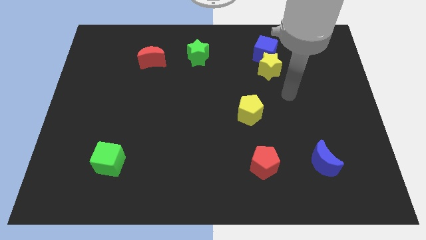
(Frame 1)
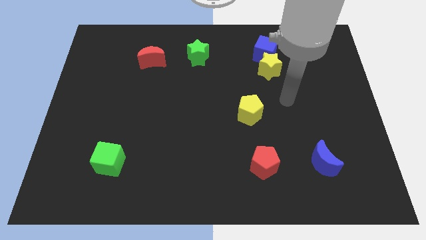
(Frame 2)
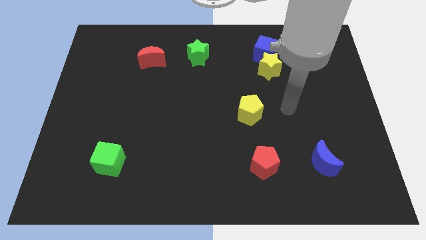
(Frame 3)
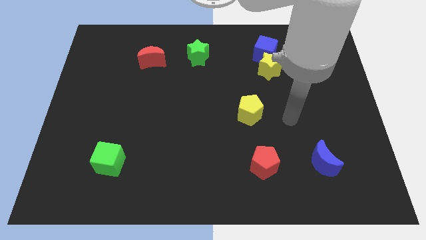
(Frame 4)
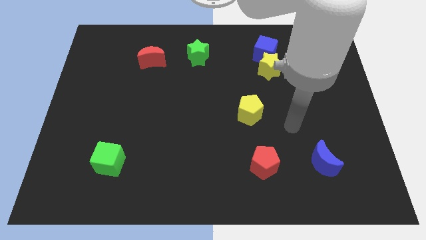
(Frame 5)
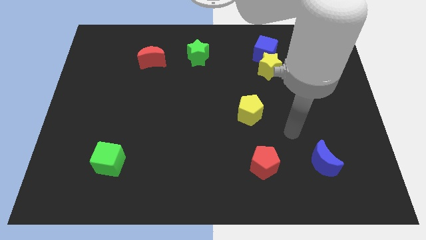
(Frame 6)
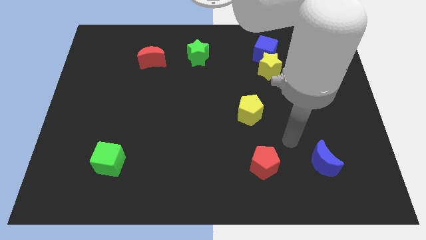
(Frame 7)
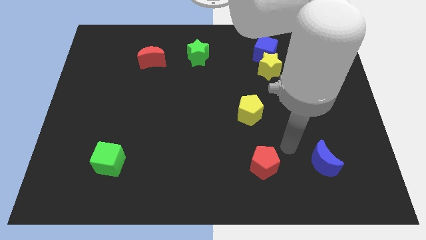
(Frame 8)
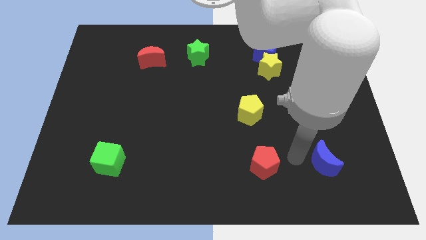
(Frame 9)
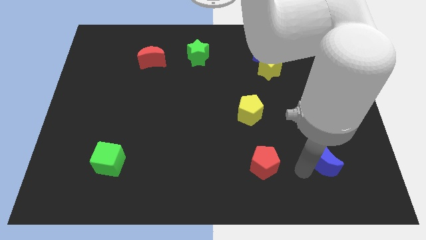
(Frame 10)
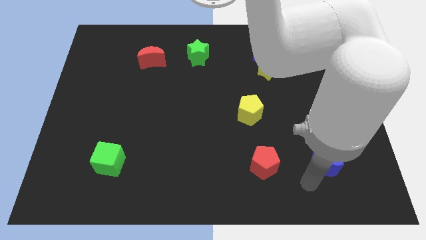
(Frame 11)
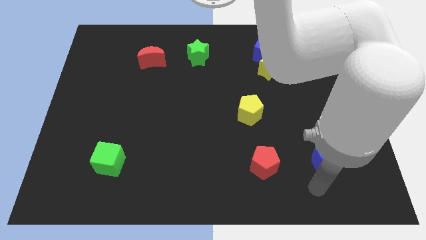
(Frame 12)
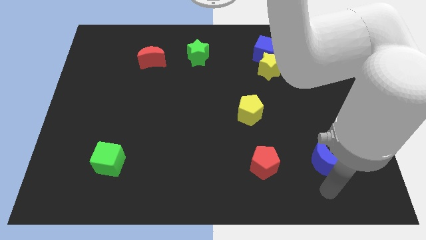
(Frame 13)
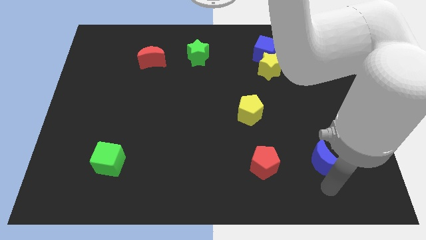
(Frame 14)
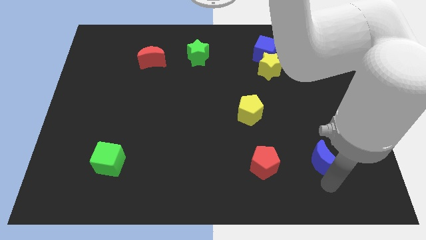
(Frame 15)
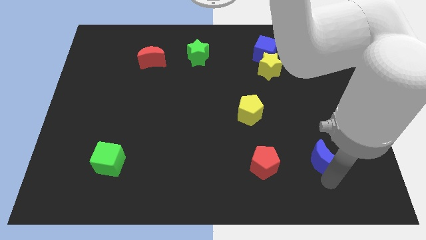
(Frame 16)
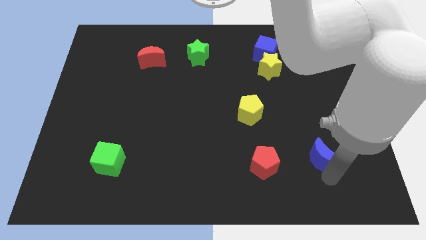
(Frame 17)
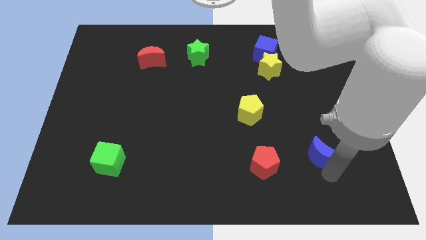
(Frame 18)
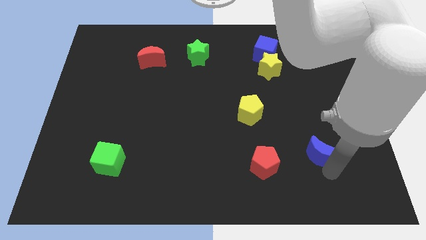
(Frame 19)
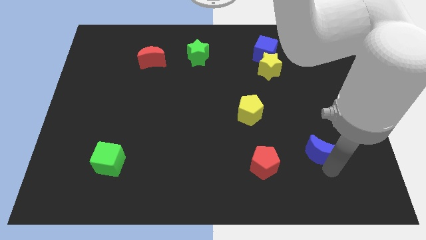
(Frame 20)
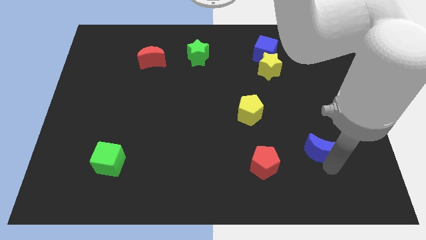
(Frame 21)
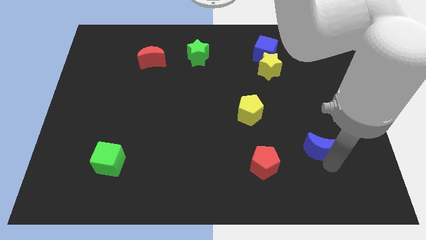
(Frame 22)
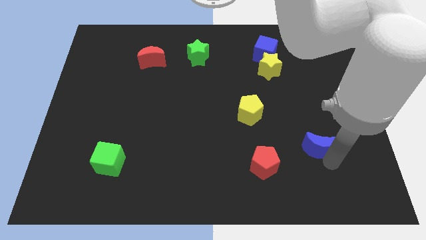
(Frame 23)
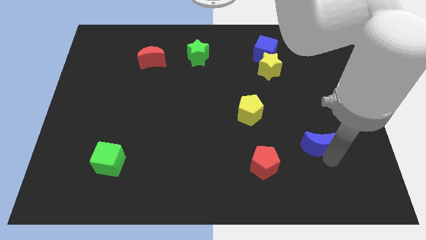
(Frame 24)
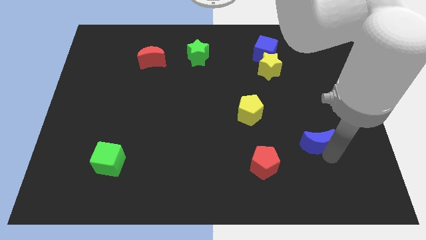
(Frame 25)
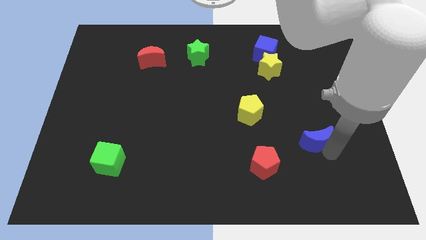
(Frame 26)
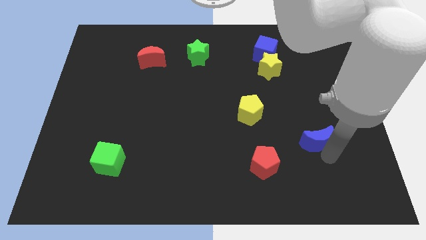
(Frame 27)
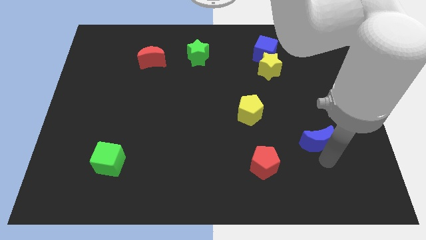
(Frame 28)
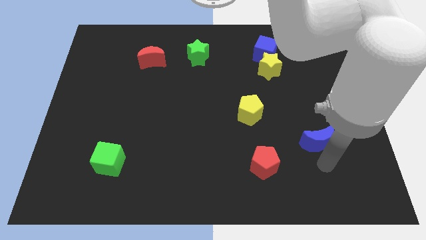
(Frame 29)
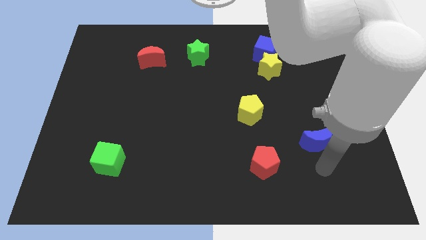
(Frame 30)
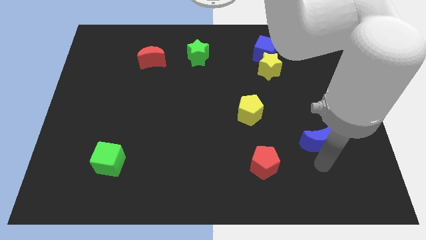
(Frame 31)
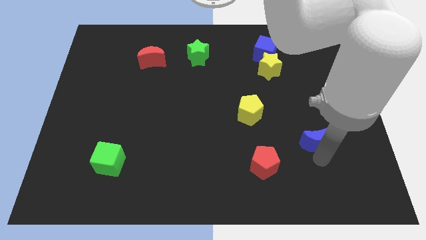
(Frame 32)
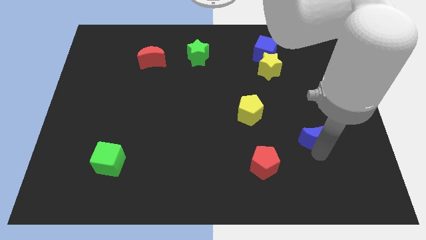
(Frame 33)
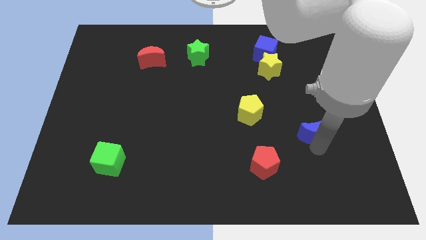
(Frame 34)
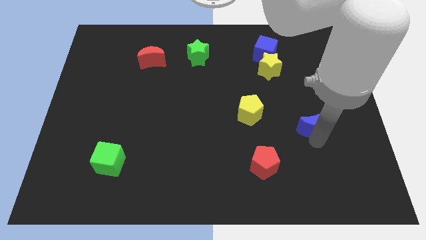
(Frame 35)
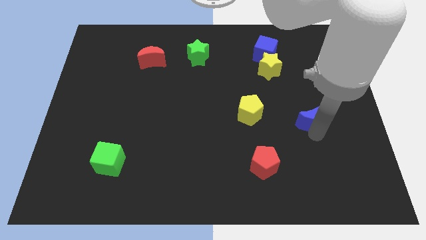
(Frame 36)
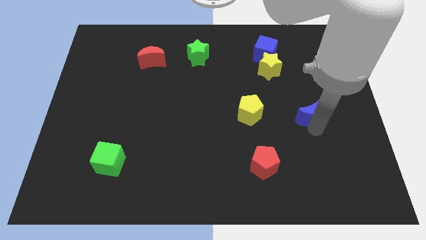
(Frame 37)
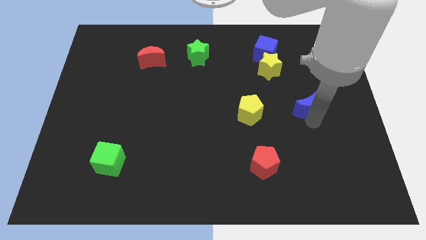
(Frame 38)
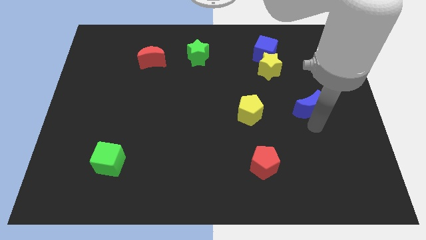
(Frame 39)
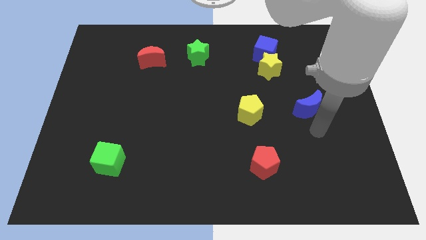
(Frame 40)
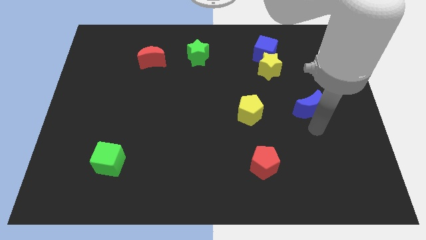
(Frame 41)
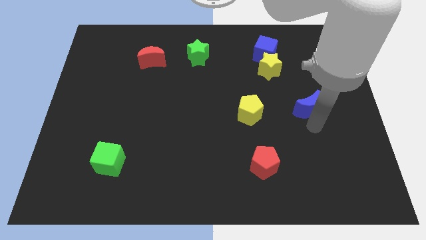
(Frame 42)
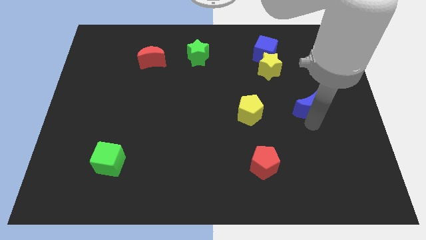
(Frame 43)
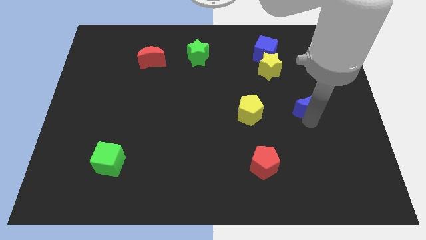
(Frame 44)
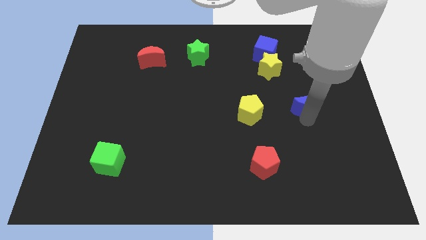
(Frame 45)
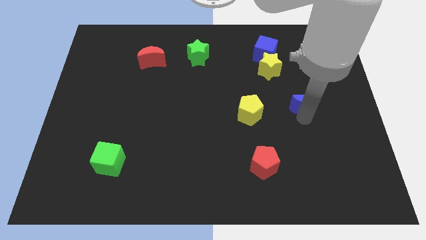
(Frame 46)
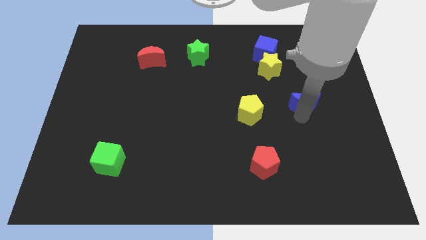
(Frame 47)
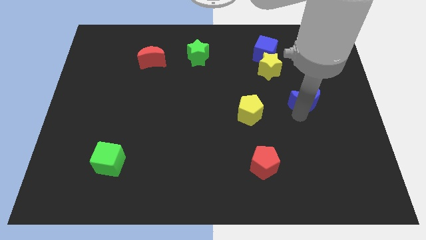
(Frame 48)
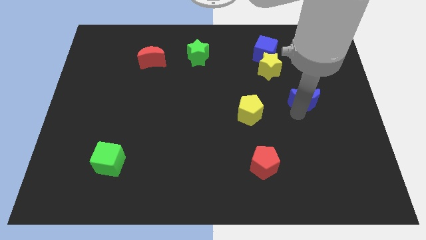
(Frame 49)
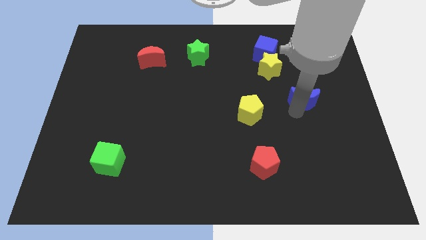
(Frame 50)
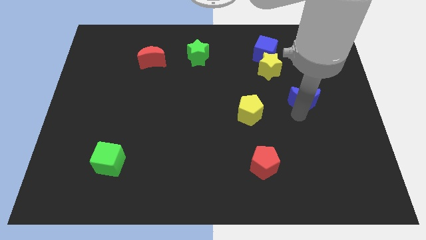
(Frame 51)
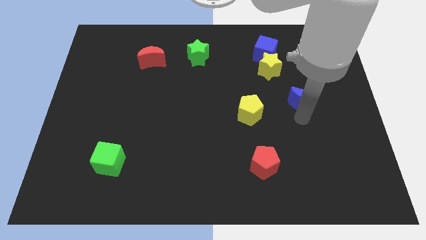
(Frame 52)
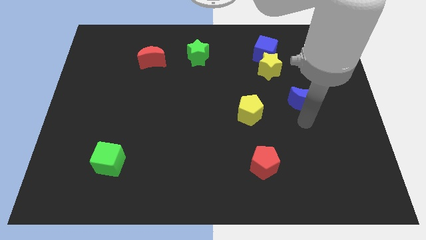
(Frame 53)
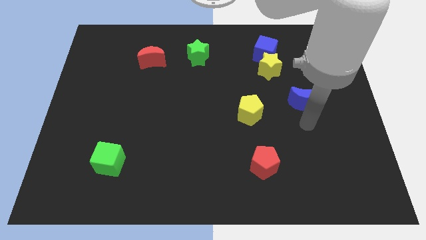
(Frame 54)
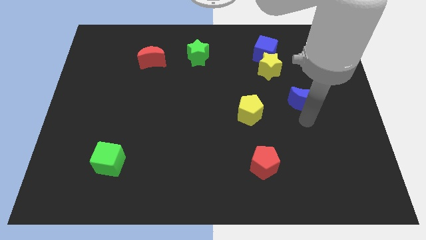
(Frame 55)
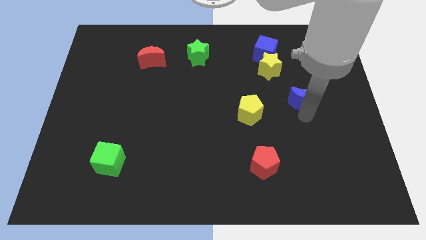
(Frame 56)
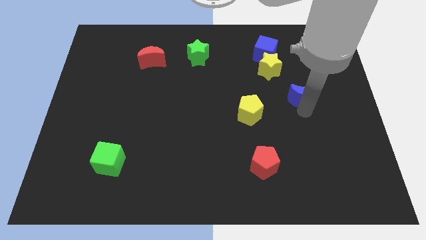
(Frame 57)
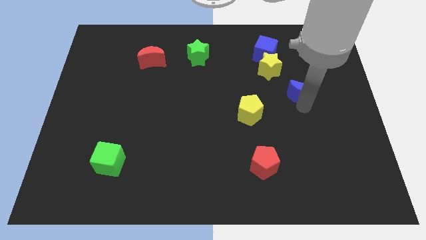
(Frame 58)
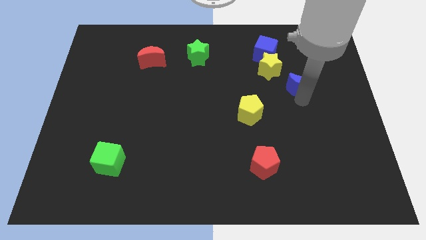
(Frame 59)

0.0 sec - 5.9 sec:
push the blue moon up

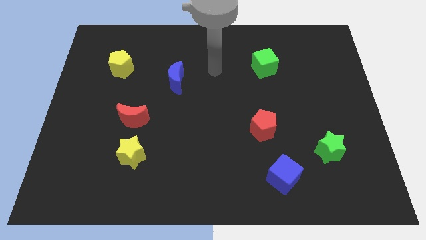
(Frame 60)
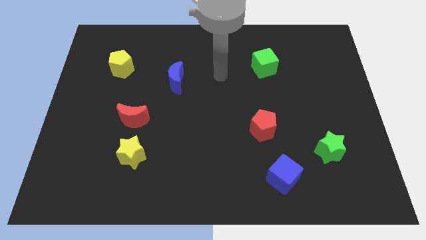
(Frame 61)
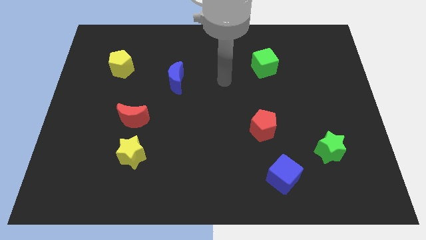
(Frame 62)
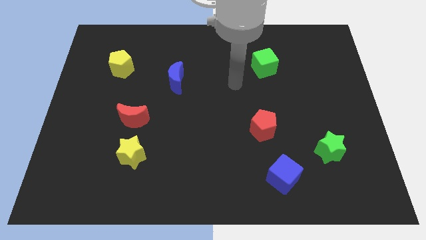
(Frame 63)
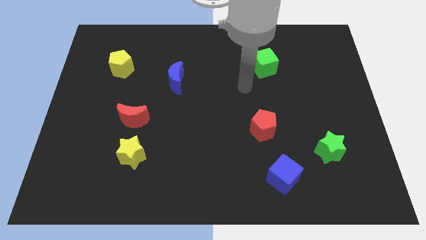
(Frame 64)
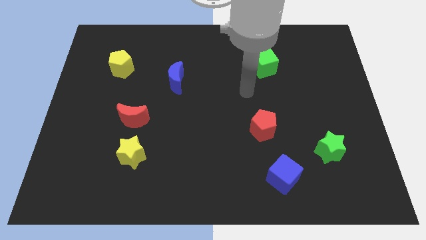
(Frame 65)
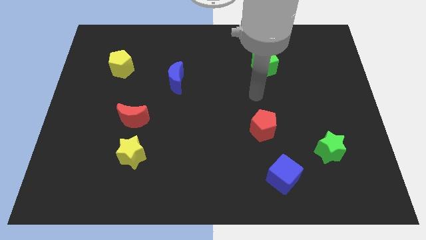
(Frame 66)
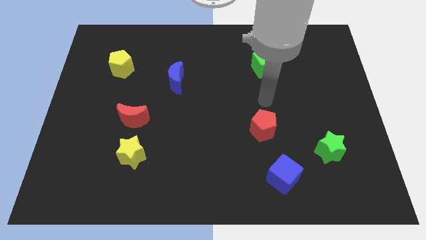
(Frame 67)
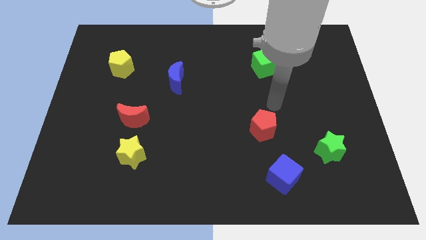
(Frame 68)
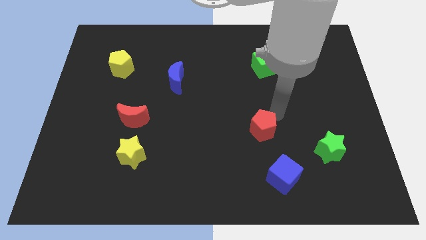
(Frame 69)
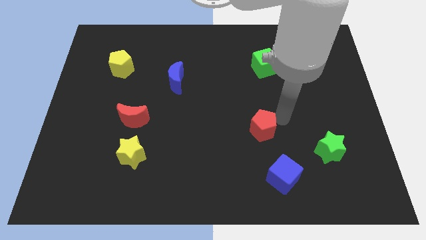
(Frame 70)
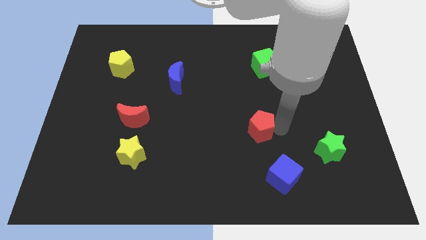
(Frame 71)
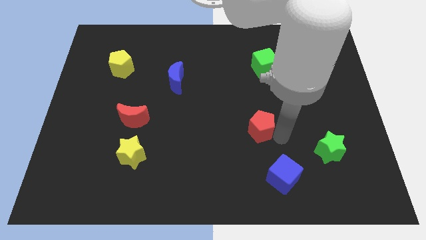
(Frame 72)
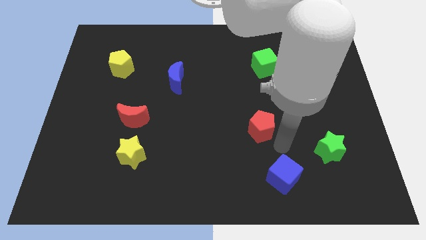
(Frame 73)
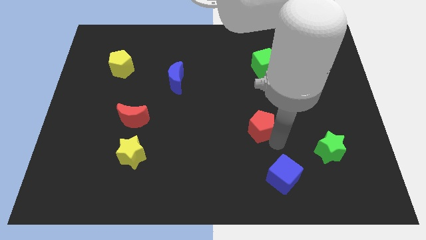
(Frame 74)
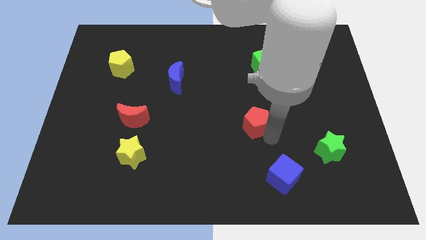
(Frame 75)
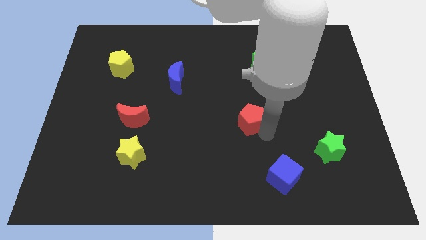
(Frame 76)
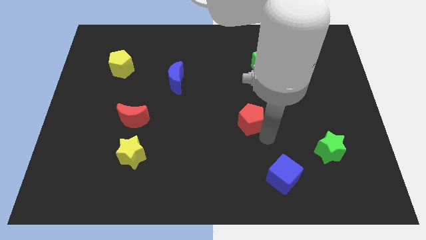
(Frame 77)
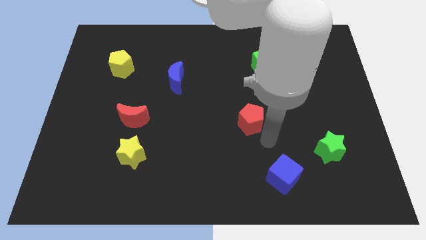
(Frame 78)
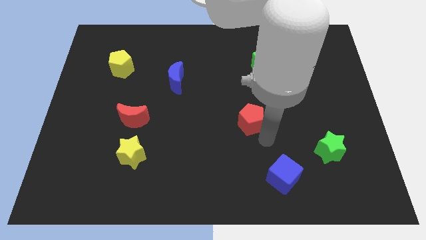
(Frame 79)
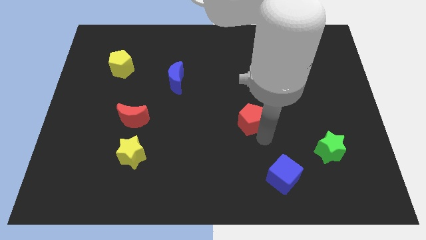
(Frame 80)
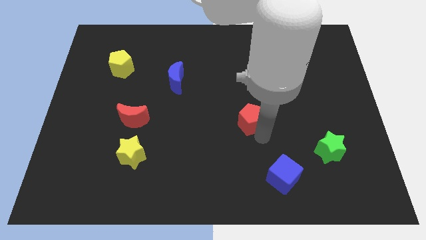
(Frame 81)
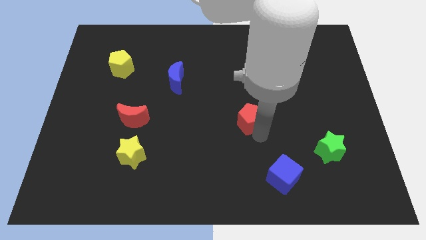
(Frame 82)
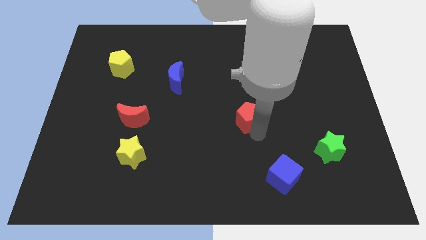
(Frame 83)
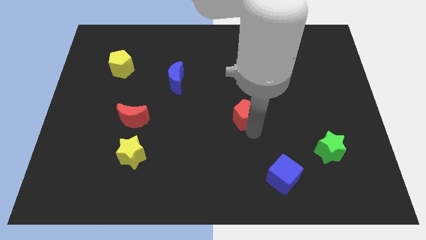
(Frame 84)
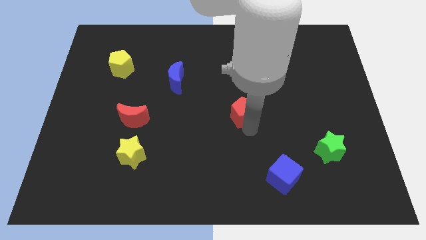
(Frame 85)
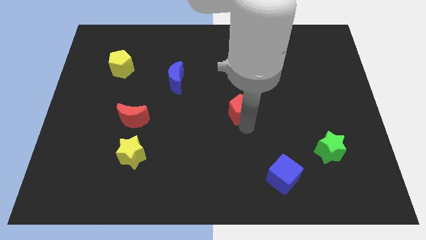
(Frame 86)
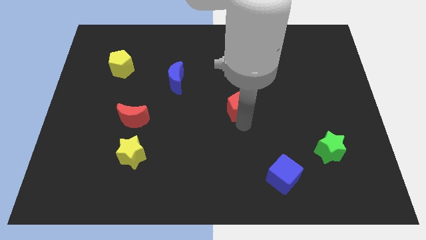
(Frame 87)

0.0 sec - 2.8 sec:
push the red pentagon a little up and then to the left
